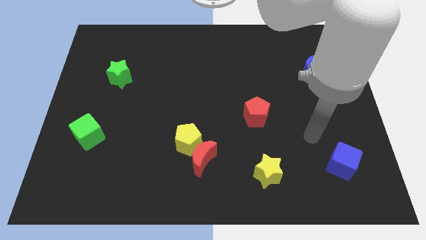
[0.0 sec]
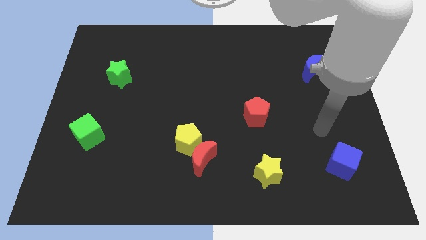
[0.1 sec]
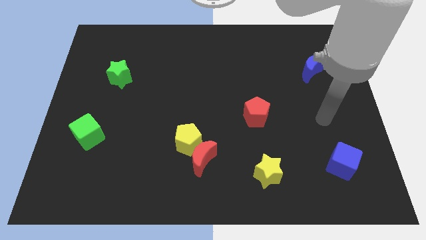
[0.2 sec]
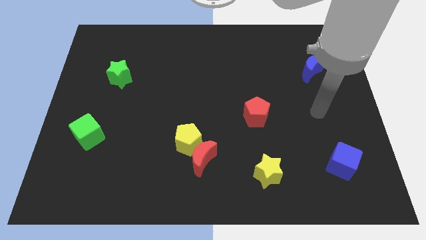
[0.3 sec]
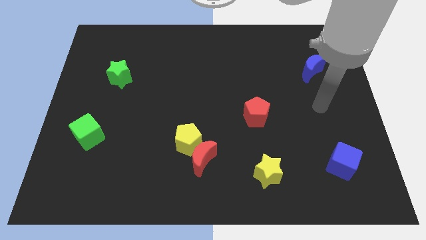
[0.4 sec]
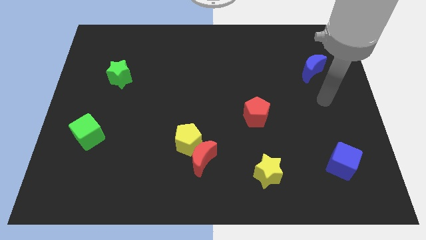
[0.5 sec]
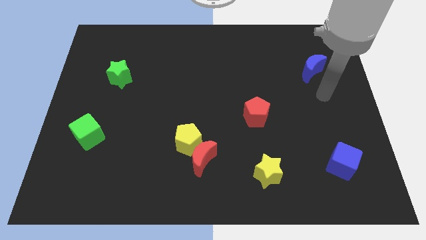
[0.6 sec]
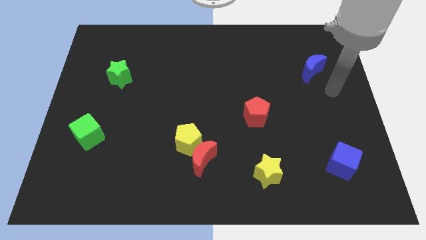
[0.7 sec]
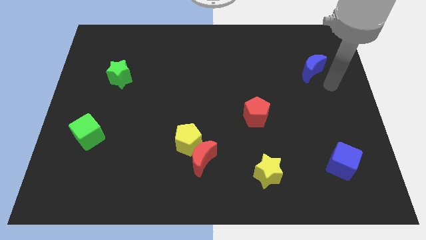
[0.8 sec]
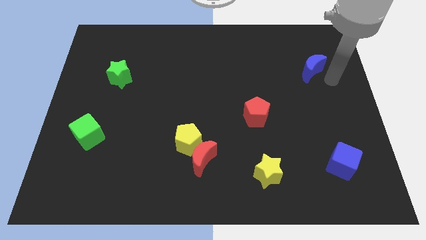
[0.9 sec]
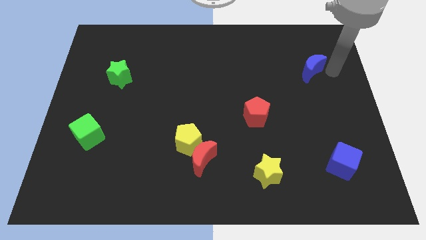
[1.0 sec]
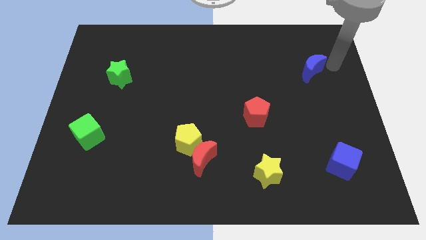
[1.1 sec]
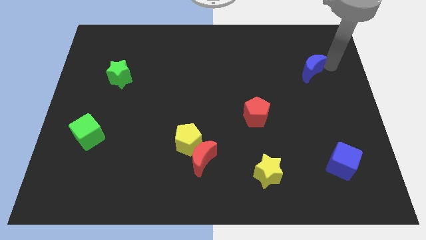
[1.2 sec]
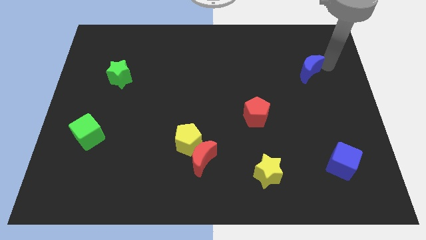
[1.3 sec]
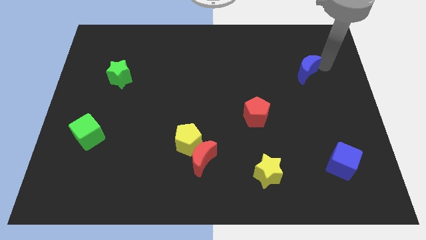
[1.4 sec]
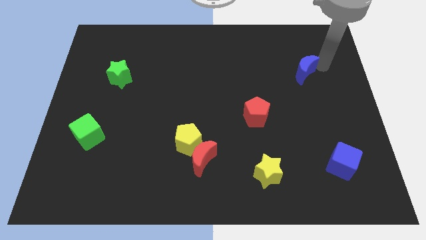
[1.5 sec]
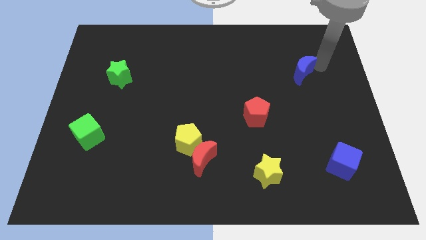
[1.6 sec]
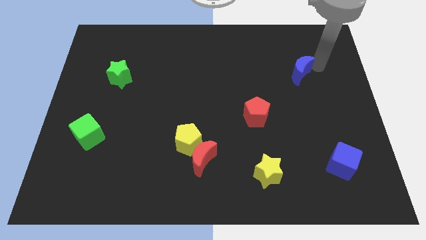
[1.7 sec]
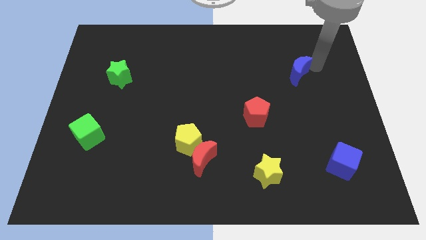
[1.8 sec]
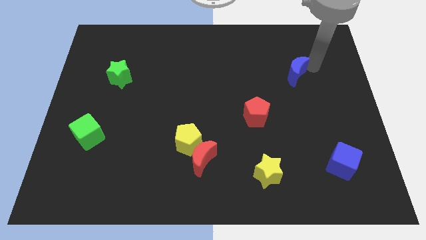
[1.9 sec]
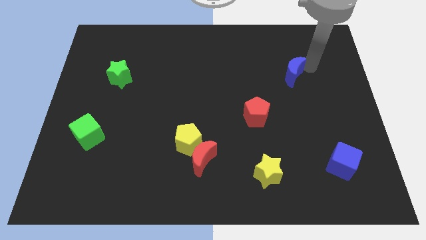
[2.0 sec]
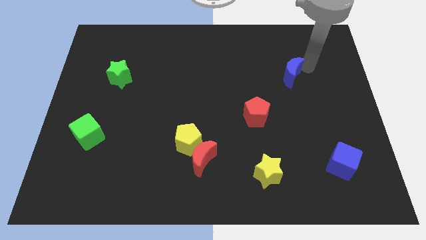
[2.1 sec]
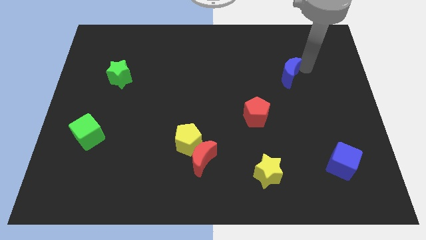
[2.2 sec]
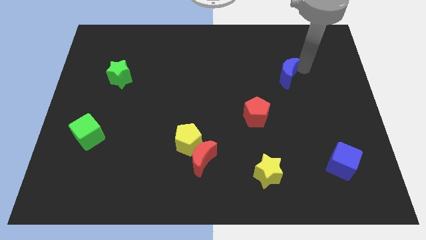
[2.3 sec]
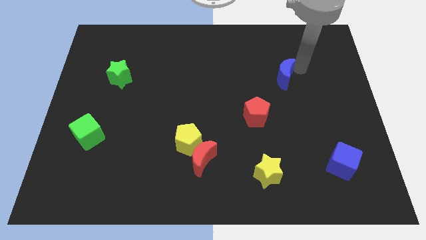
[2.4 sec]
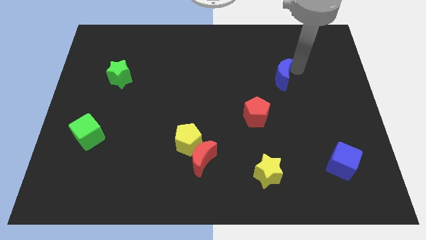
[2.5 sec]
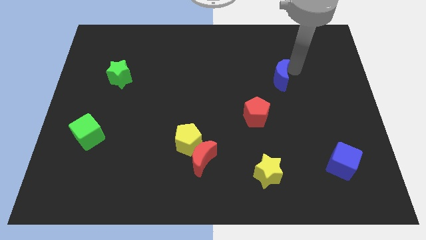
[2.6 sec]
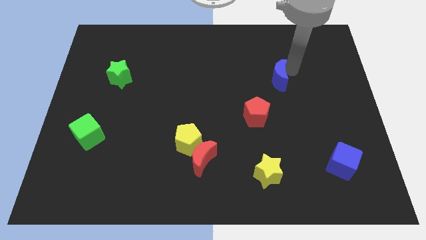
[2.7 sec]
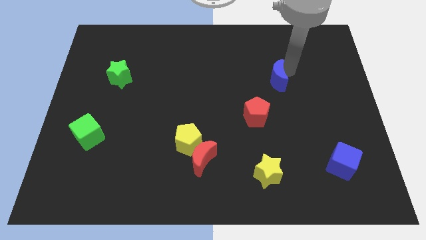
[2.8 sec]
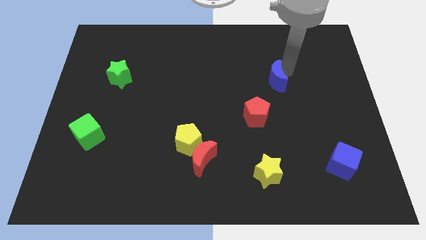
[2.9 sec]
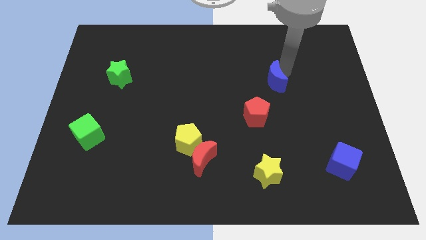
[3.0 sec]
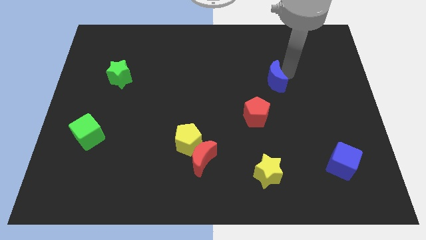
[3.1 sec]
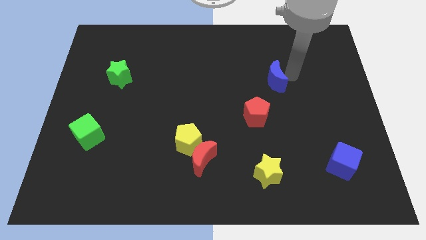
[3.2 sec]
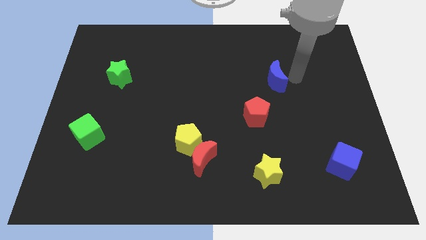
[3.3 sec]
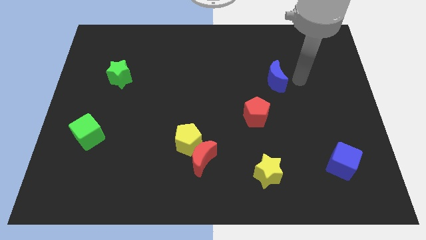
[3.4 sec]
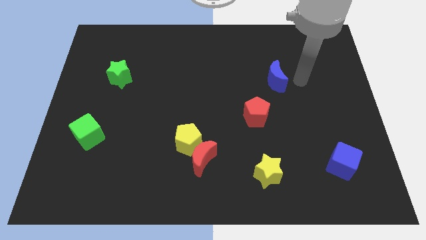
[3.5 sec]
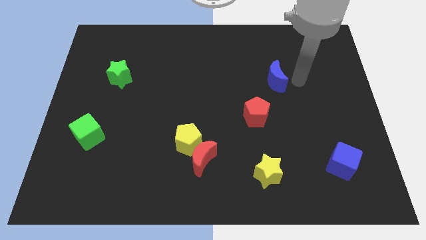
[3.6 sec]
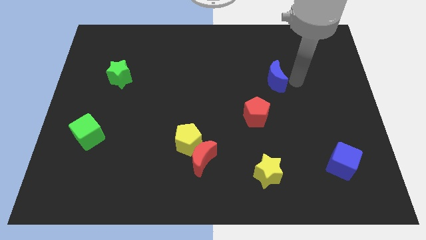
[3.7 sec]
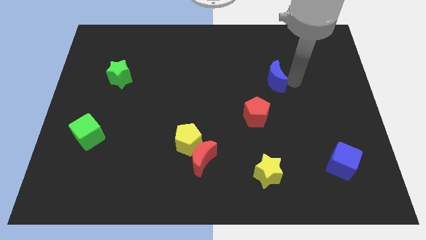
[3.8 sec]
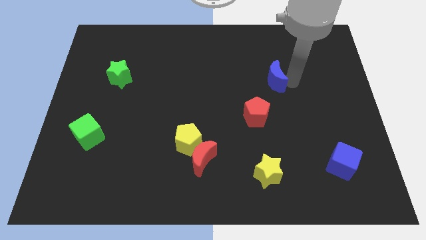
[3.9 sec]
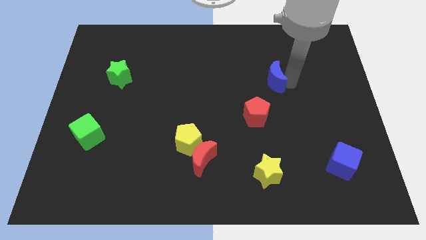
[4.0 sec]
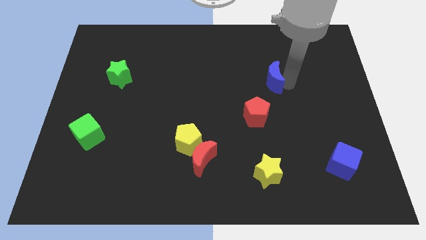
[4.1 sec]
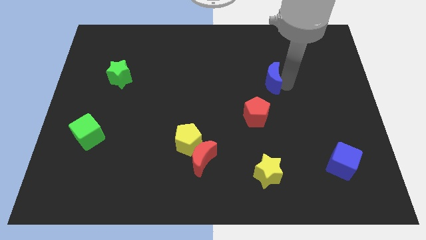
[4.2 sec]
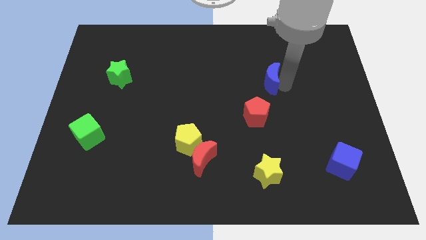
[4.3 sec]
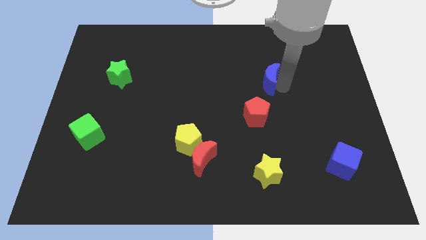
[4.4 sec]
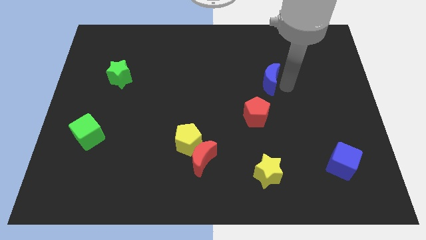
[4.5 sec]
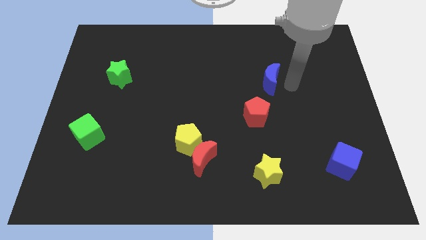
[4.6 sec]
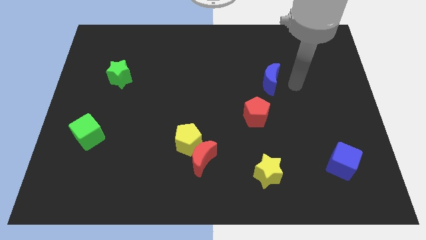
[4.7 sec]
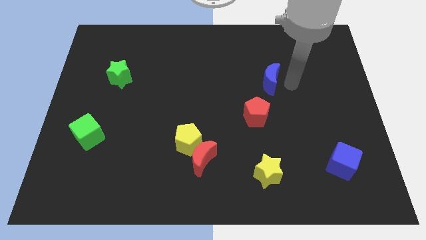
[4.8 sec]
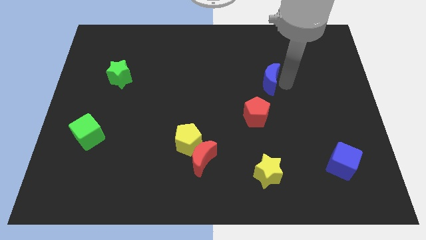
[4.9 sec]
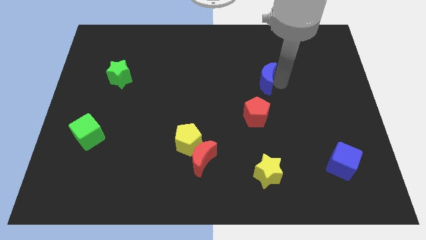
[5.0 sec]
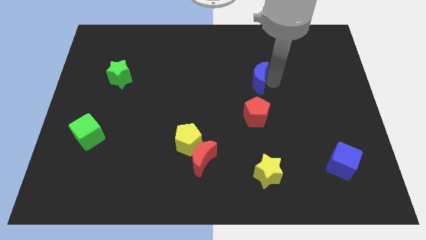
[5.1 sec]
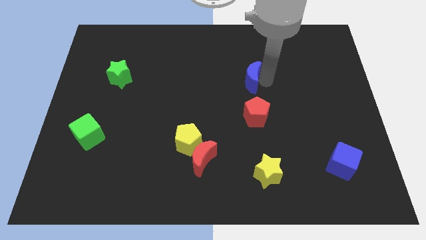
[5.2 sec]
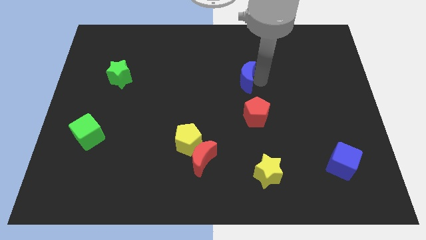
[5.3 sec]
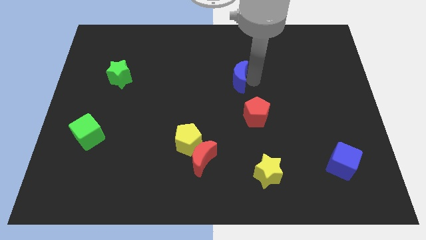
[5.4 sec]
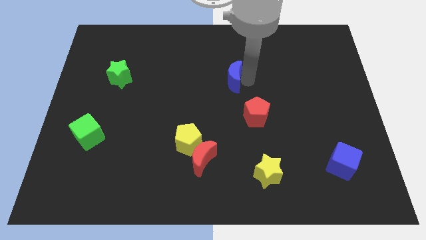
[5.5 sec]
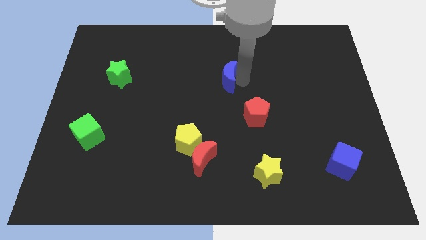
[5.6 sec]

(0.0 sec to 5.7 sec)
slide the blue moon to the left

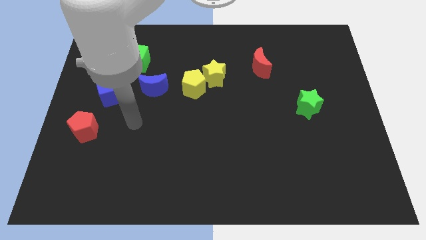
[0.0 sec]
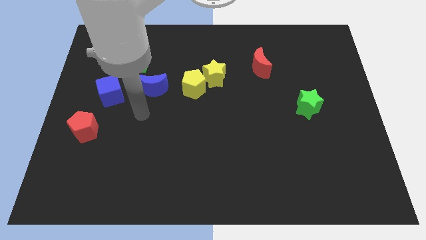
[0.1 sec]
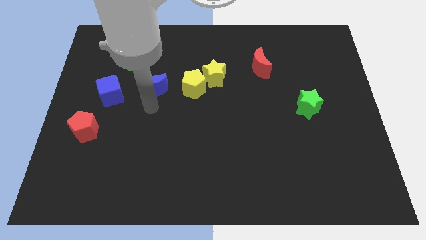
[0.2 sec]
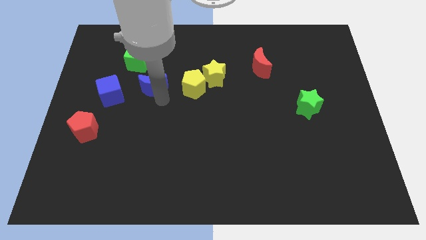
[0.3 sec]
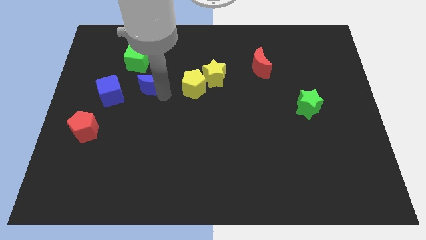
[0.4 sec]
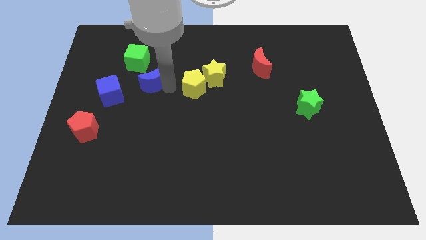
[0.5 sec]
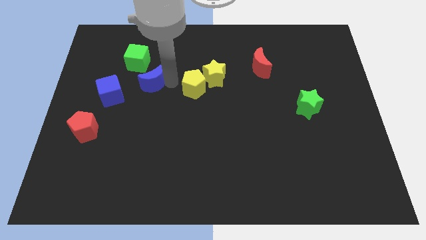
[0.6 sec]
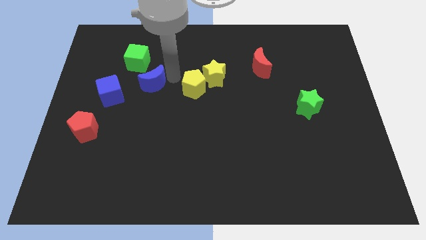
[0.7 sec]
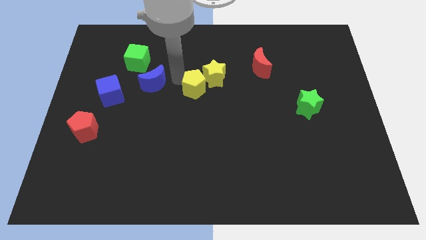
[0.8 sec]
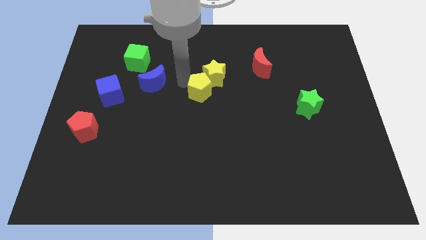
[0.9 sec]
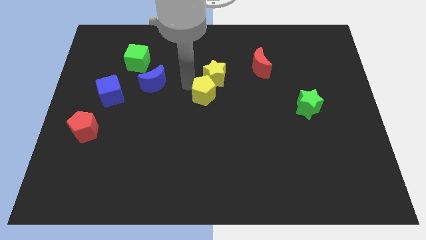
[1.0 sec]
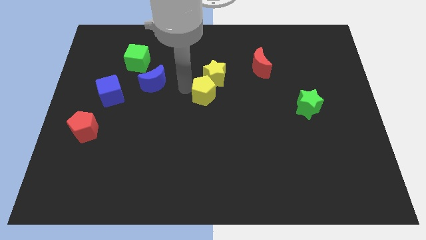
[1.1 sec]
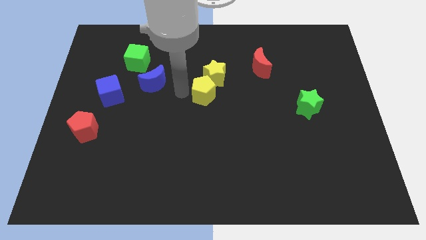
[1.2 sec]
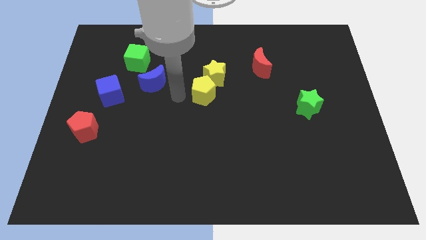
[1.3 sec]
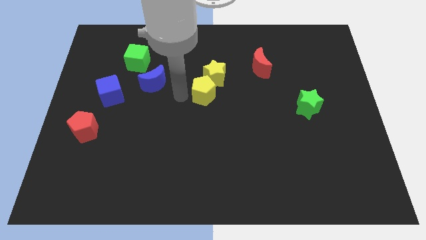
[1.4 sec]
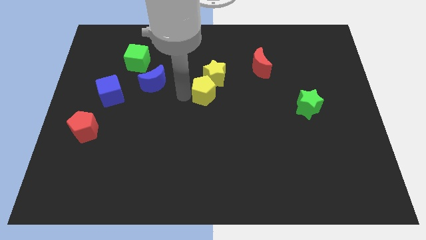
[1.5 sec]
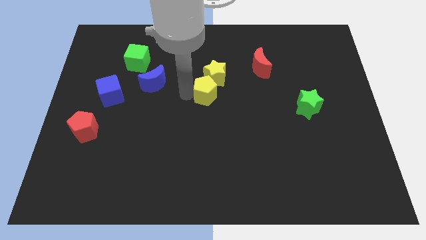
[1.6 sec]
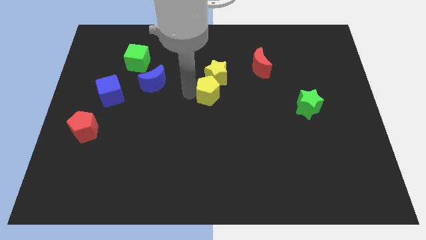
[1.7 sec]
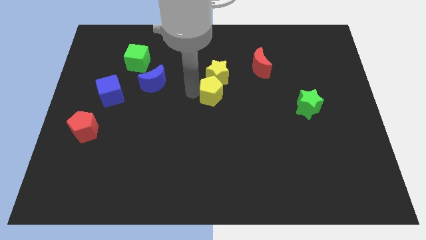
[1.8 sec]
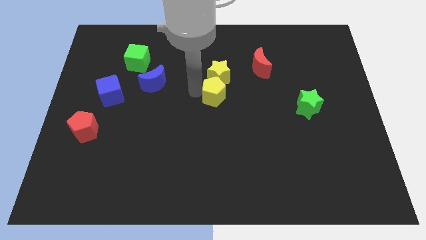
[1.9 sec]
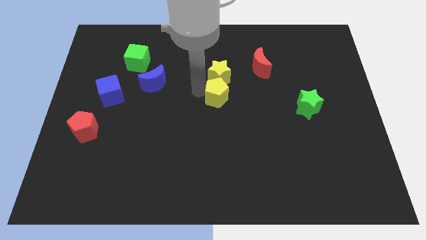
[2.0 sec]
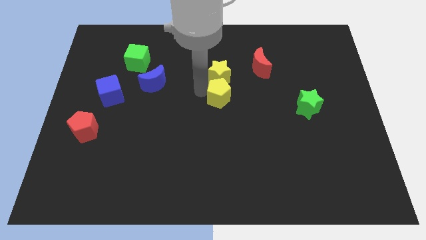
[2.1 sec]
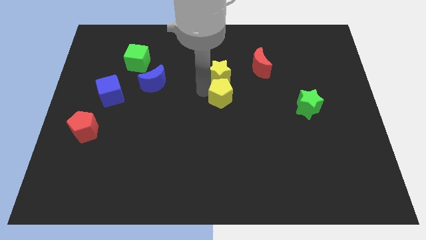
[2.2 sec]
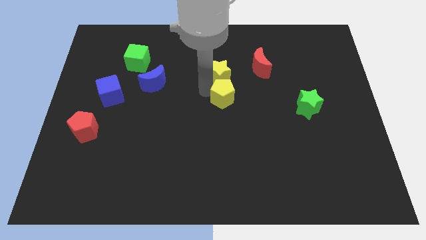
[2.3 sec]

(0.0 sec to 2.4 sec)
slightly move the yellow pentagon right

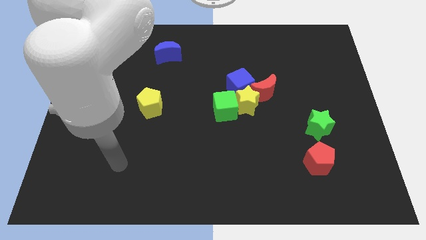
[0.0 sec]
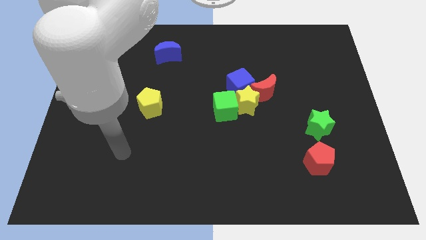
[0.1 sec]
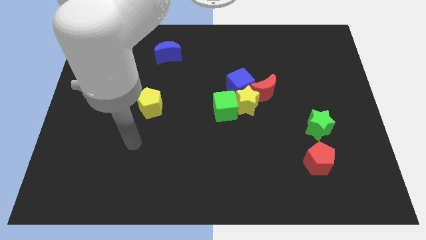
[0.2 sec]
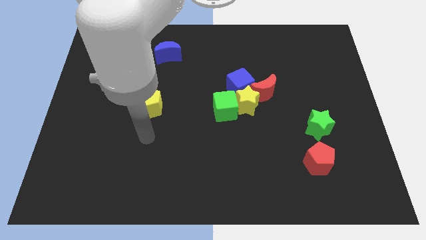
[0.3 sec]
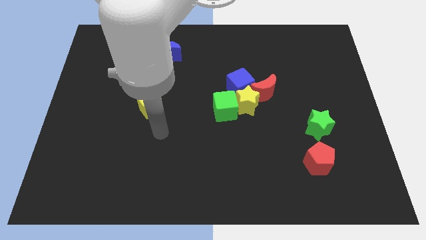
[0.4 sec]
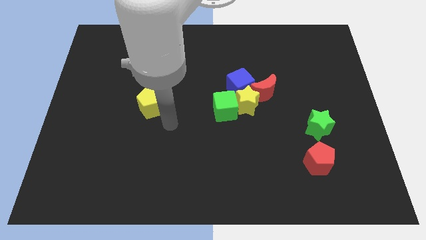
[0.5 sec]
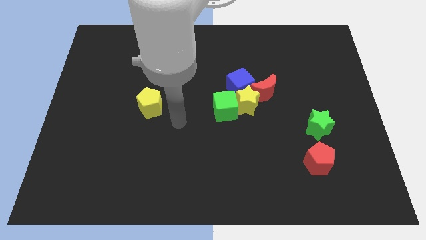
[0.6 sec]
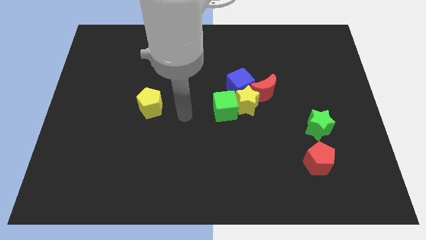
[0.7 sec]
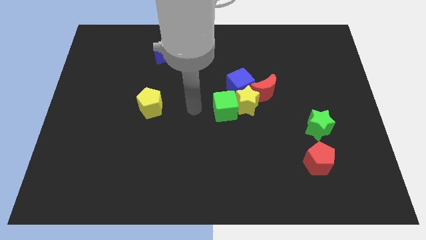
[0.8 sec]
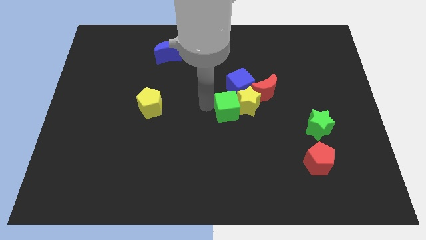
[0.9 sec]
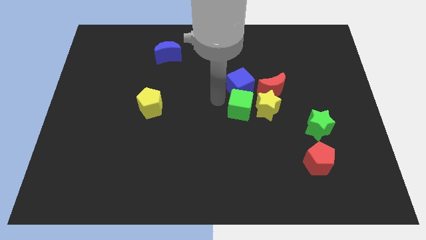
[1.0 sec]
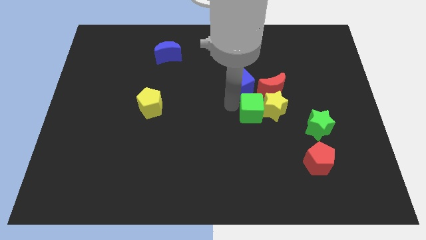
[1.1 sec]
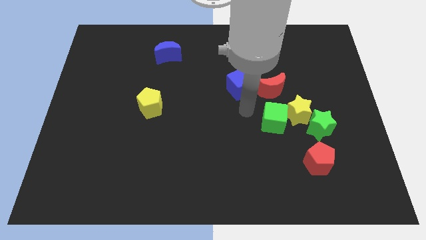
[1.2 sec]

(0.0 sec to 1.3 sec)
push the yellow star somewhat right
